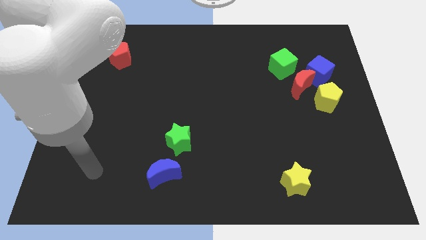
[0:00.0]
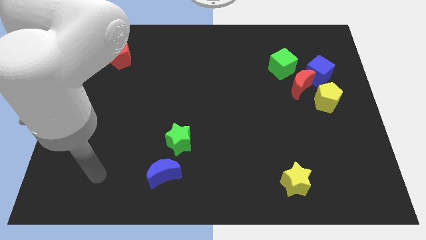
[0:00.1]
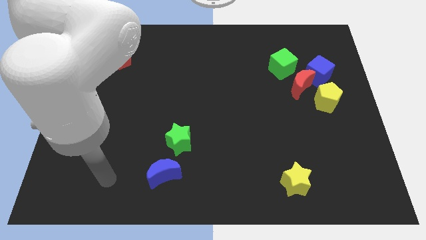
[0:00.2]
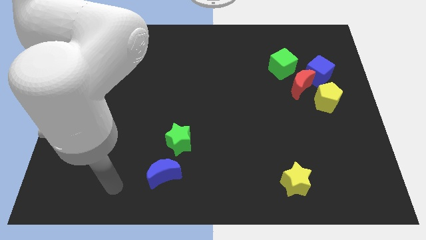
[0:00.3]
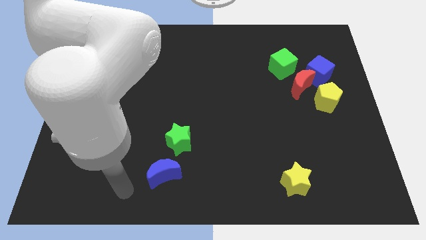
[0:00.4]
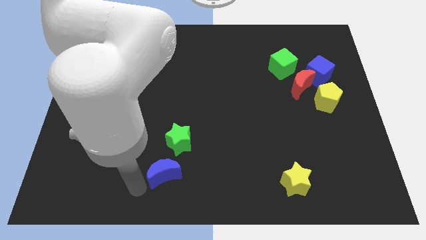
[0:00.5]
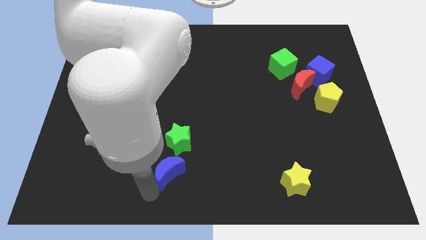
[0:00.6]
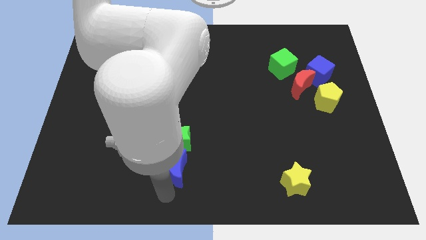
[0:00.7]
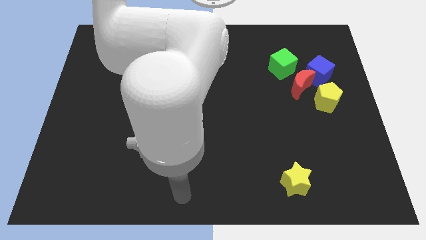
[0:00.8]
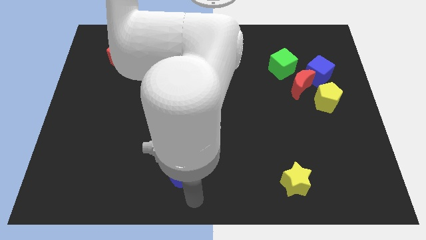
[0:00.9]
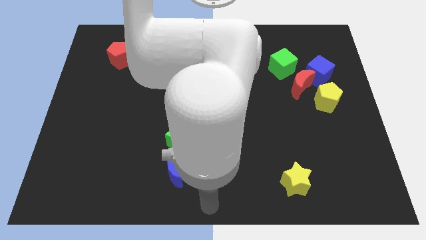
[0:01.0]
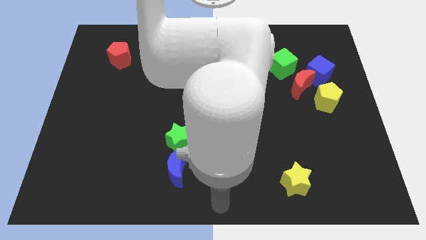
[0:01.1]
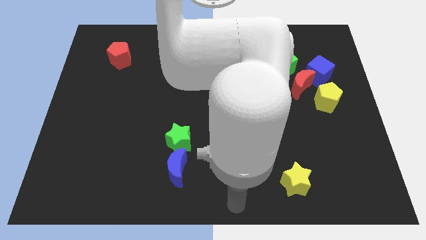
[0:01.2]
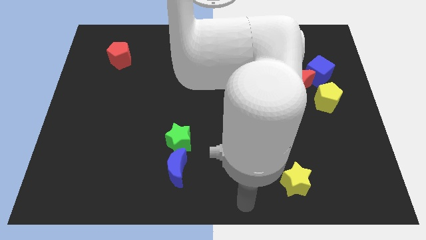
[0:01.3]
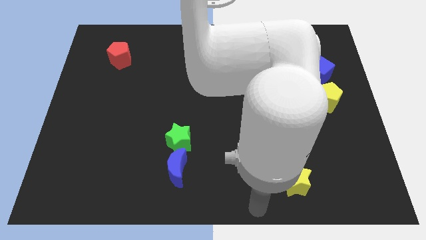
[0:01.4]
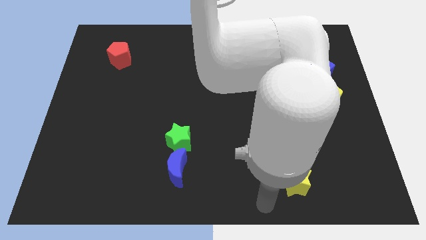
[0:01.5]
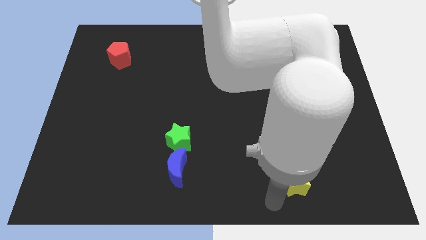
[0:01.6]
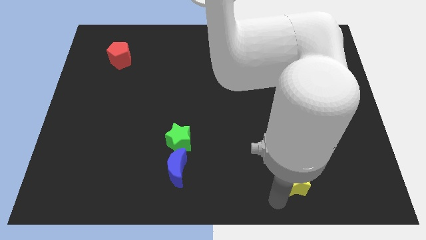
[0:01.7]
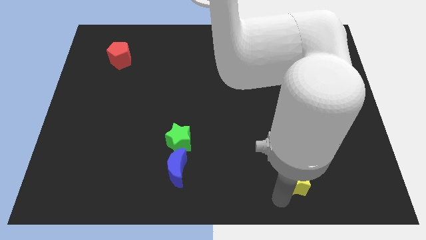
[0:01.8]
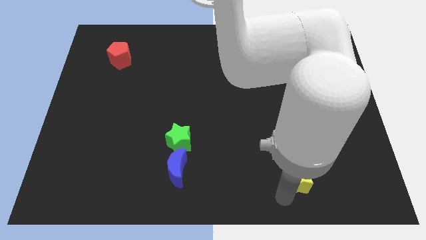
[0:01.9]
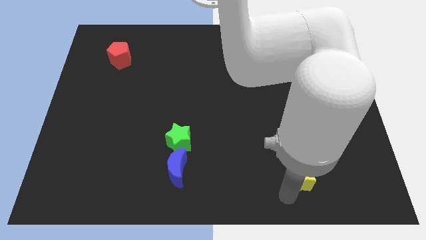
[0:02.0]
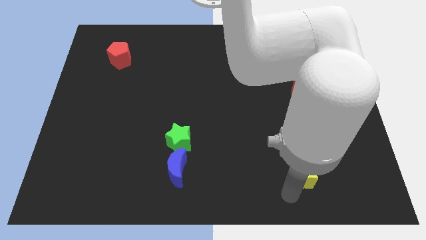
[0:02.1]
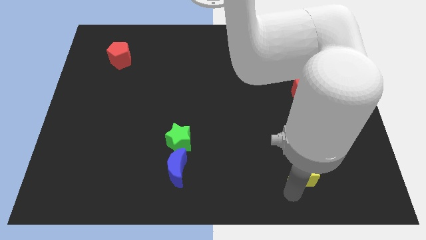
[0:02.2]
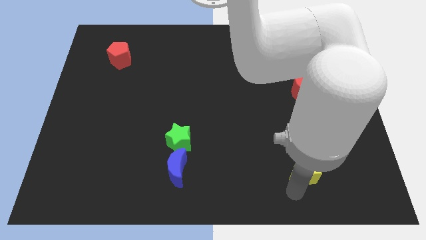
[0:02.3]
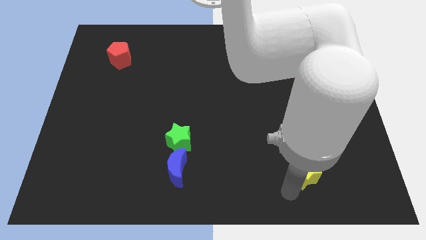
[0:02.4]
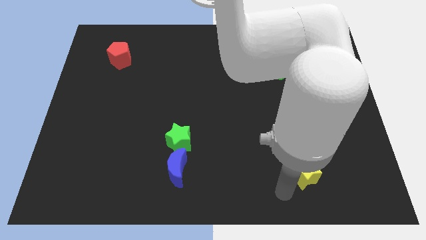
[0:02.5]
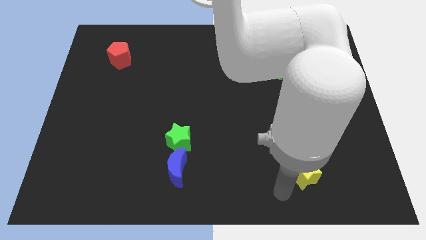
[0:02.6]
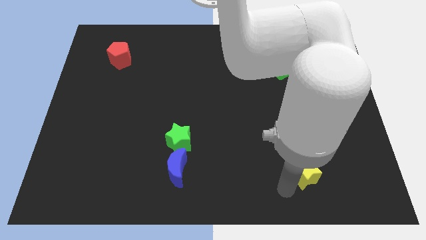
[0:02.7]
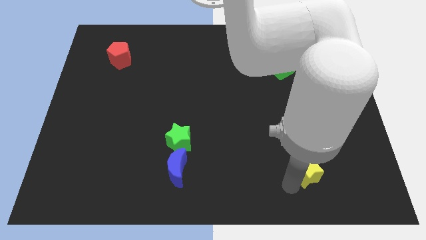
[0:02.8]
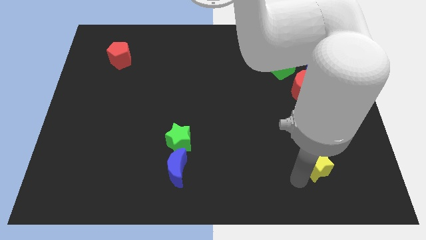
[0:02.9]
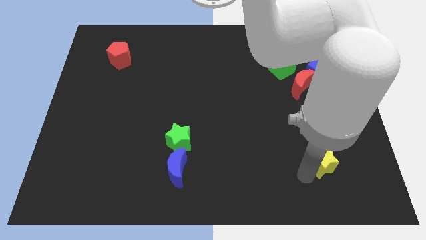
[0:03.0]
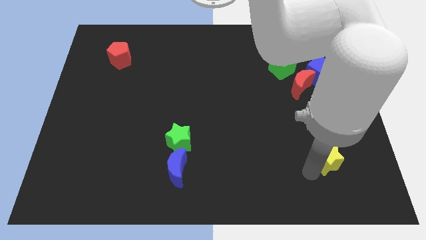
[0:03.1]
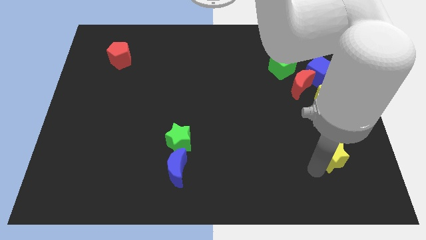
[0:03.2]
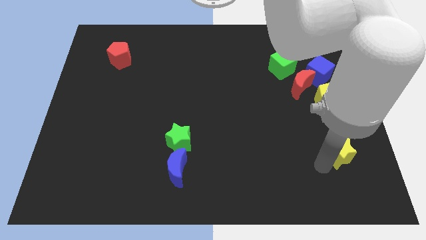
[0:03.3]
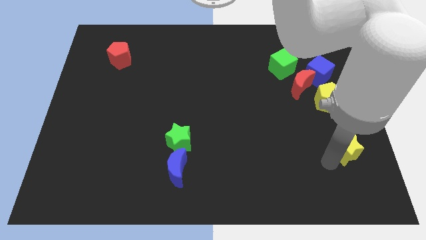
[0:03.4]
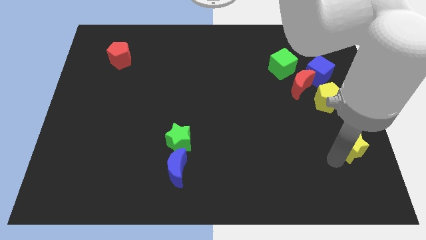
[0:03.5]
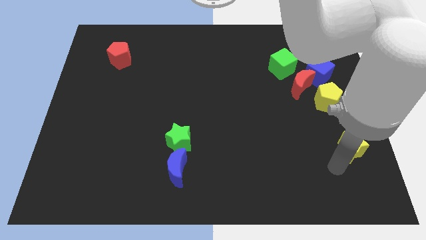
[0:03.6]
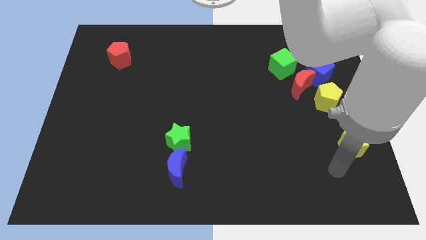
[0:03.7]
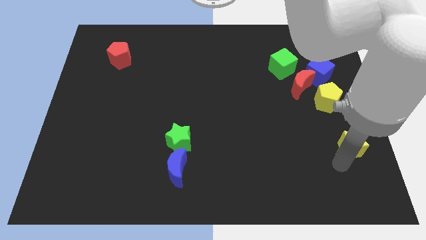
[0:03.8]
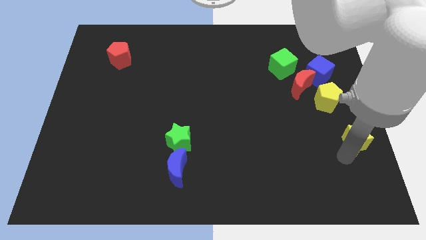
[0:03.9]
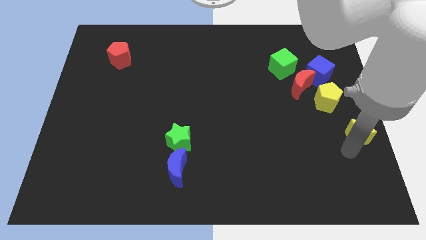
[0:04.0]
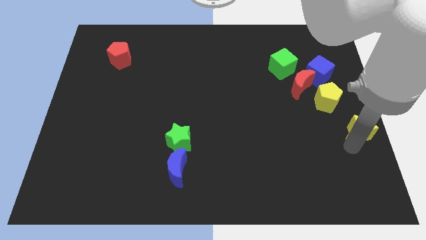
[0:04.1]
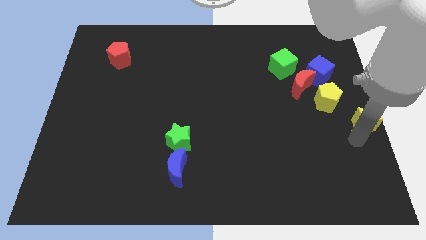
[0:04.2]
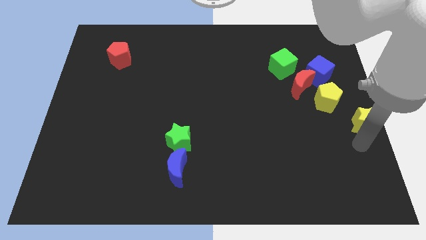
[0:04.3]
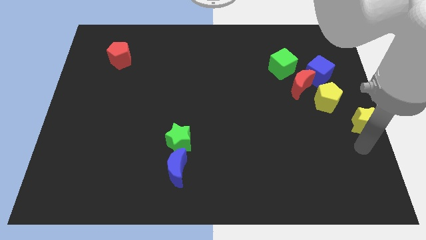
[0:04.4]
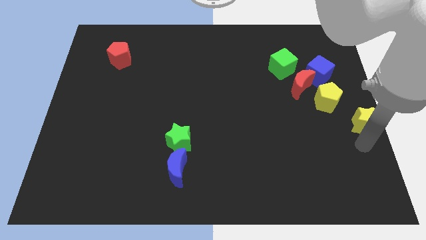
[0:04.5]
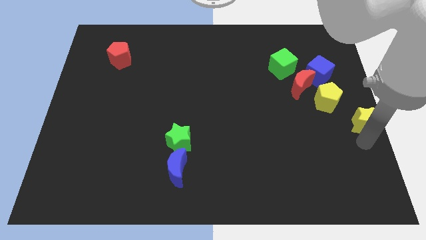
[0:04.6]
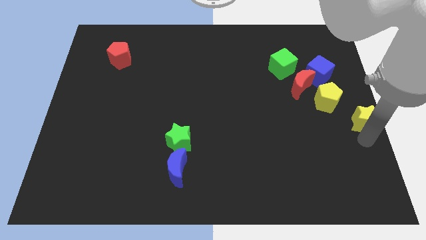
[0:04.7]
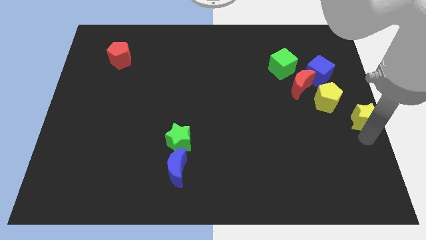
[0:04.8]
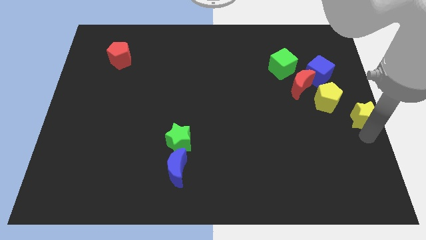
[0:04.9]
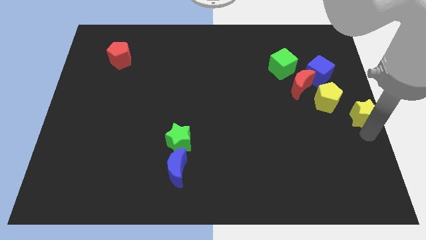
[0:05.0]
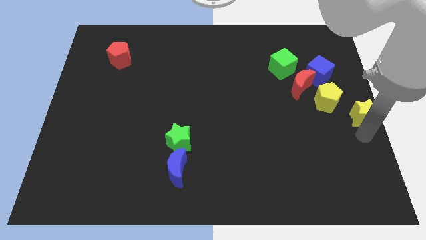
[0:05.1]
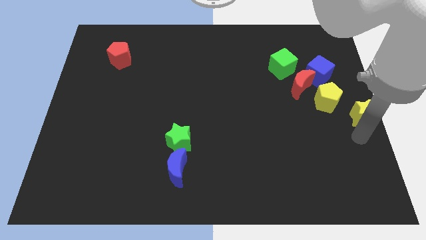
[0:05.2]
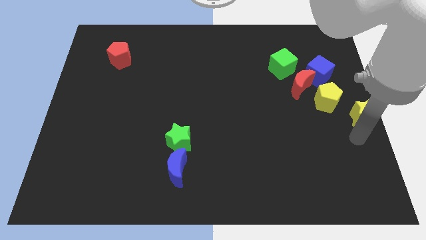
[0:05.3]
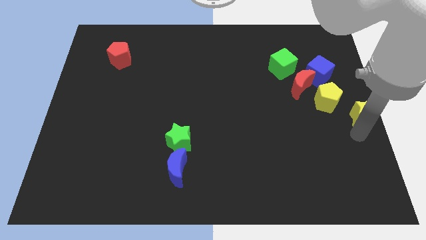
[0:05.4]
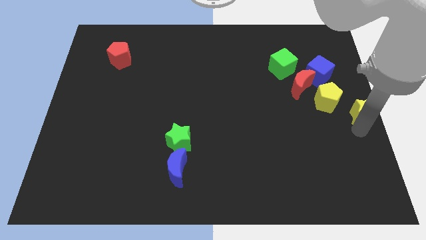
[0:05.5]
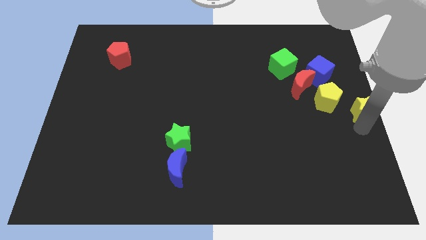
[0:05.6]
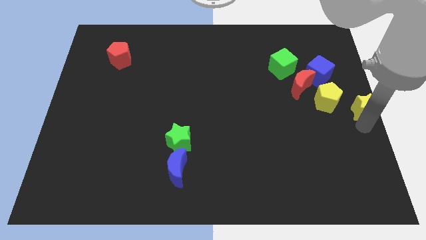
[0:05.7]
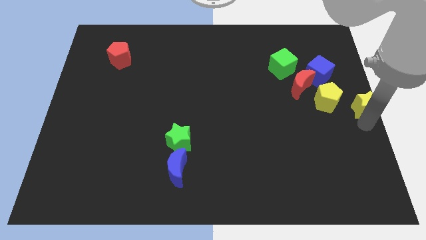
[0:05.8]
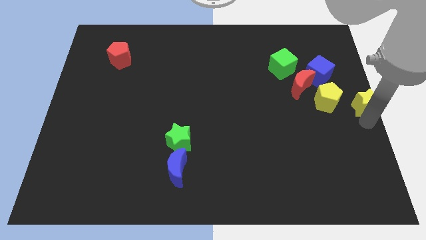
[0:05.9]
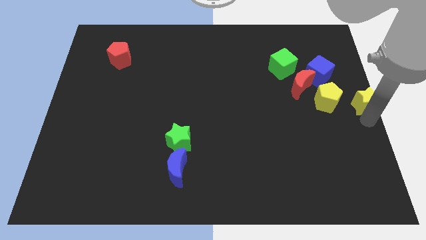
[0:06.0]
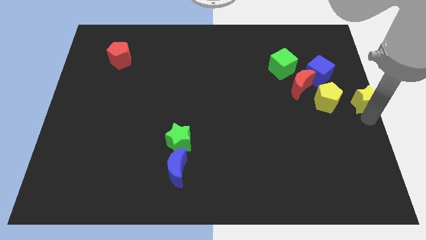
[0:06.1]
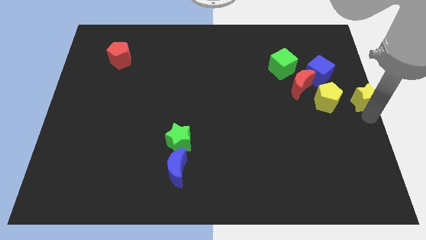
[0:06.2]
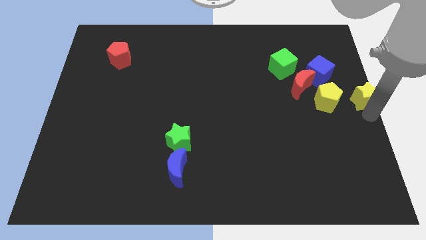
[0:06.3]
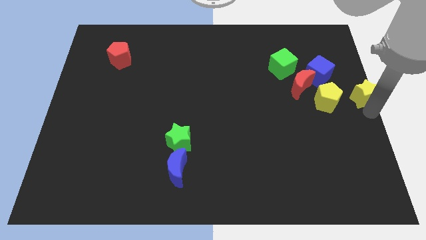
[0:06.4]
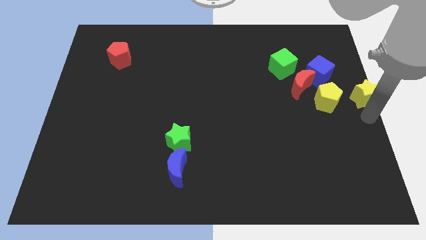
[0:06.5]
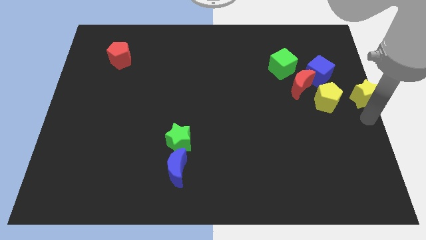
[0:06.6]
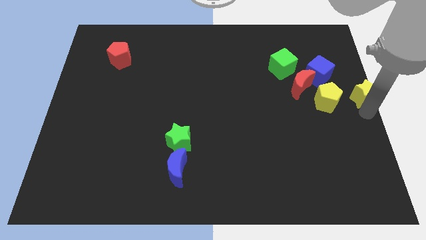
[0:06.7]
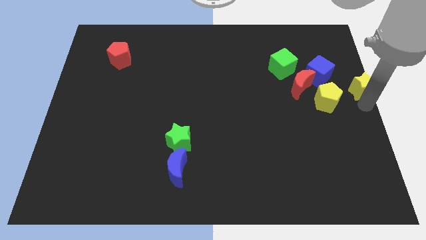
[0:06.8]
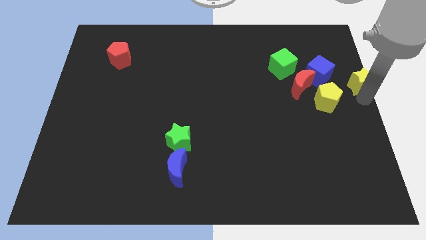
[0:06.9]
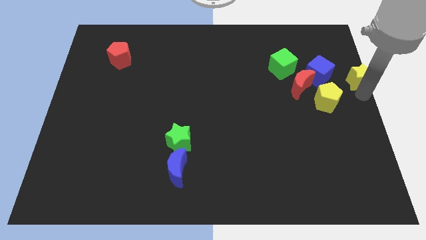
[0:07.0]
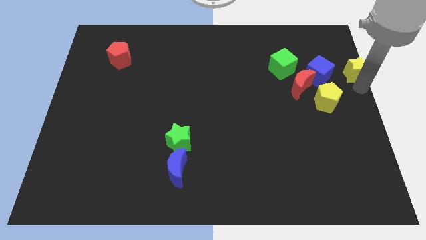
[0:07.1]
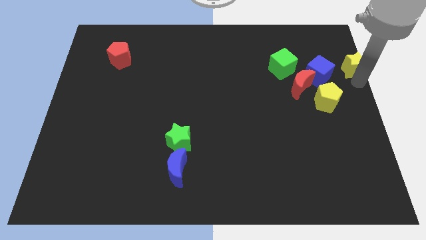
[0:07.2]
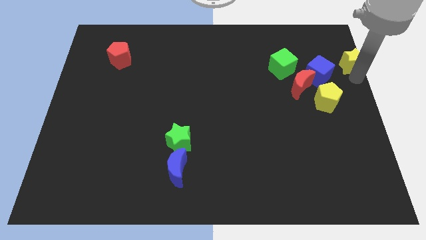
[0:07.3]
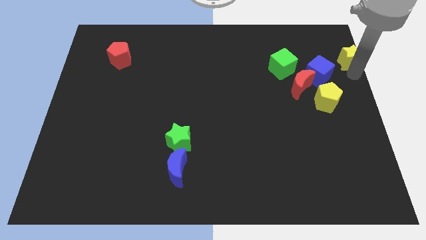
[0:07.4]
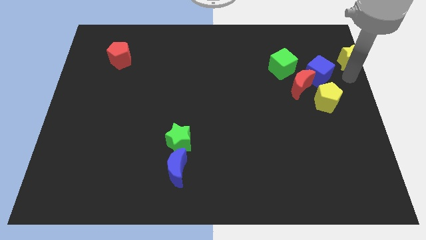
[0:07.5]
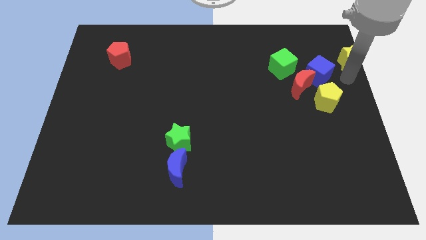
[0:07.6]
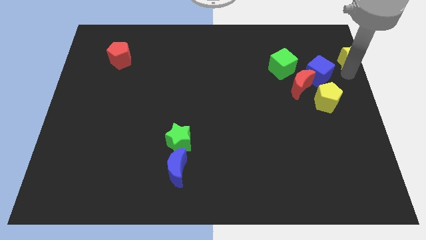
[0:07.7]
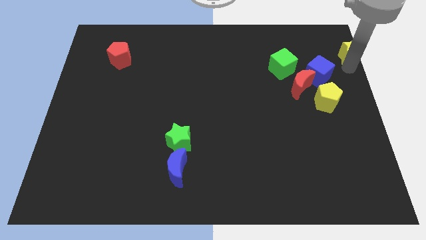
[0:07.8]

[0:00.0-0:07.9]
push the yellow star to the top right of the board
